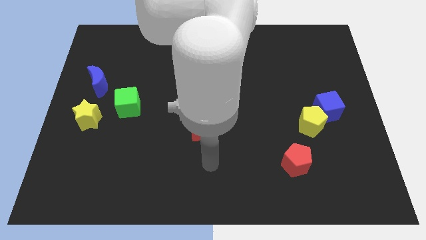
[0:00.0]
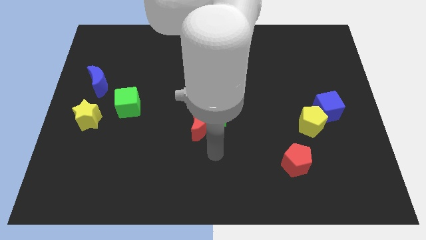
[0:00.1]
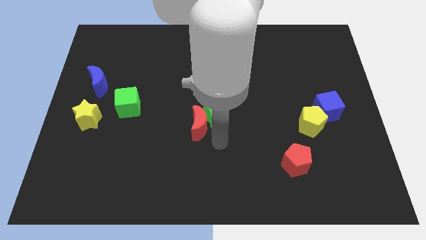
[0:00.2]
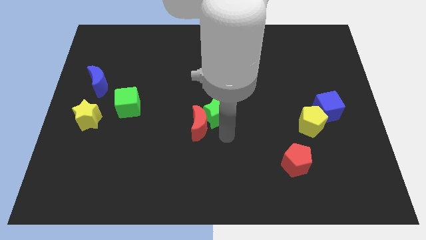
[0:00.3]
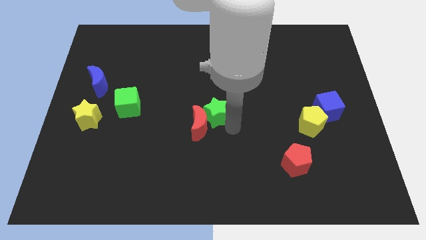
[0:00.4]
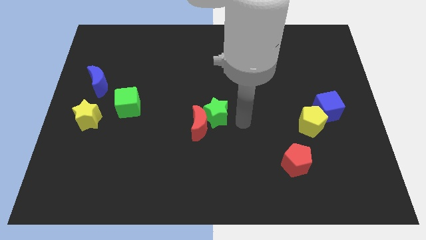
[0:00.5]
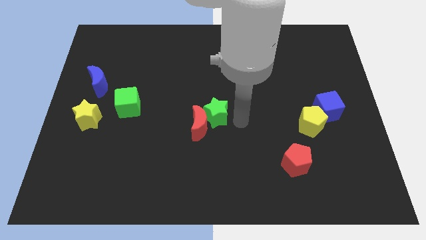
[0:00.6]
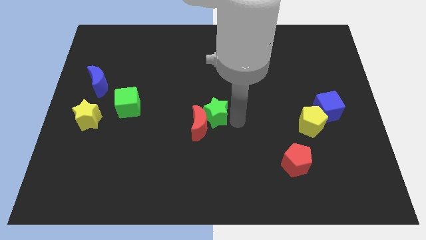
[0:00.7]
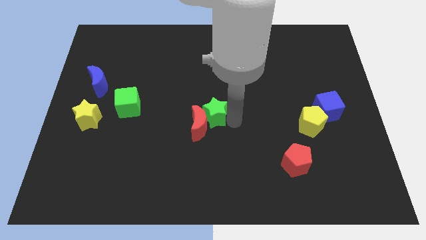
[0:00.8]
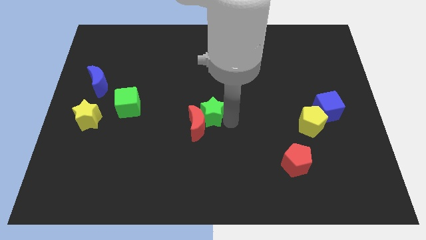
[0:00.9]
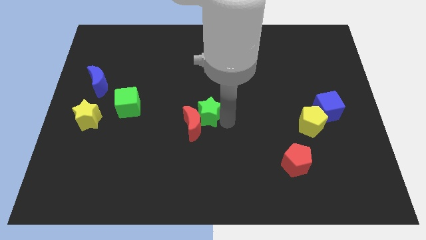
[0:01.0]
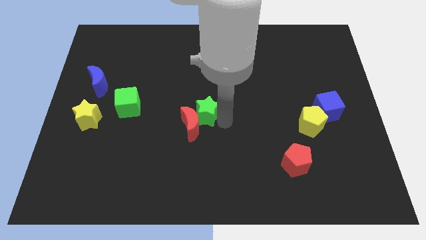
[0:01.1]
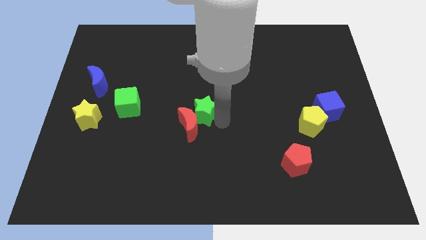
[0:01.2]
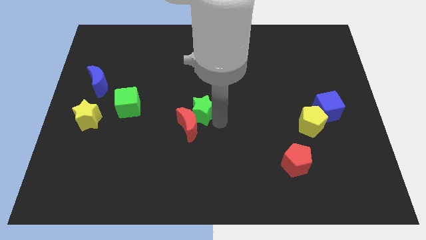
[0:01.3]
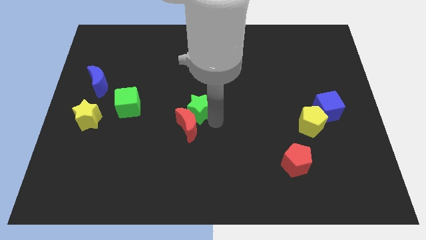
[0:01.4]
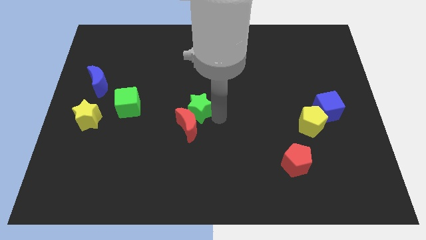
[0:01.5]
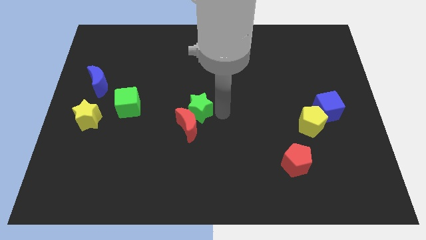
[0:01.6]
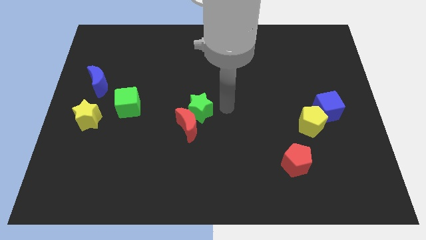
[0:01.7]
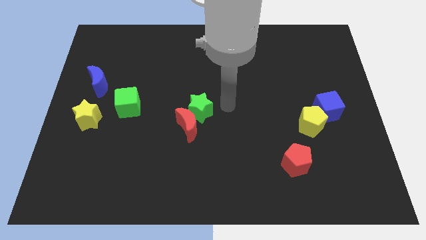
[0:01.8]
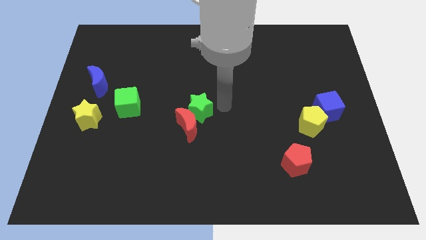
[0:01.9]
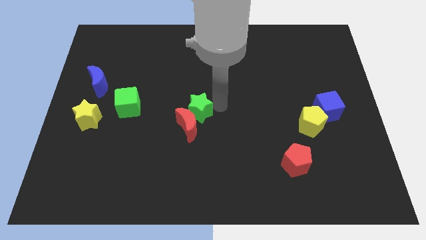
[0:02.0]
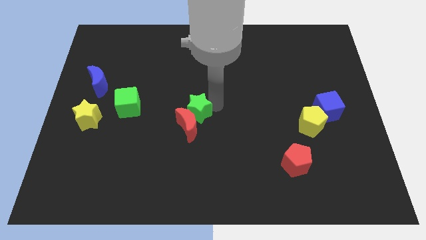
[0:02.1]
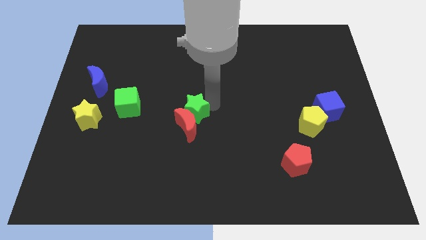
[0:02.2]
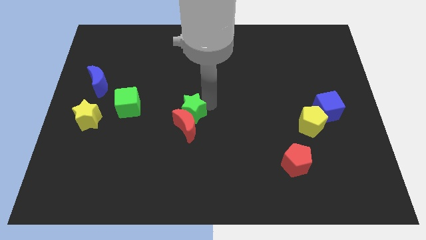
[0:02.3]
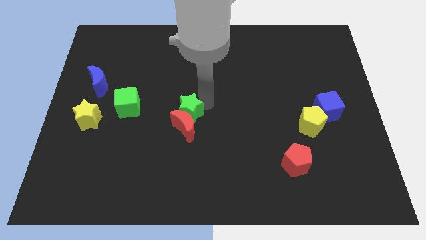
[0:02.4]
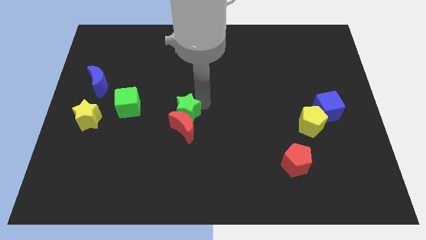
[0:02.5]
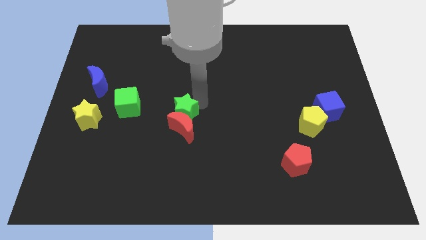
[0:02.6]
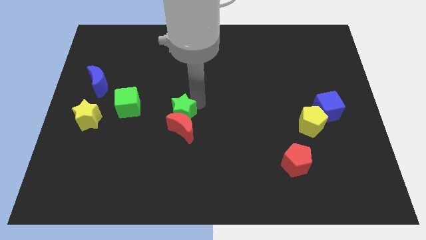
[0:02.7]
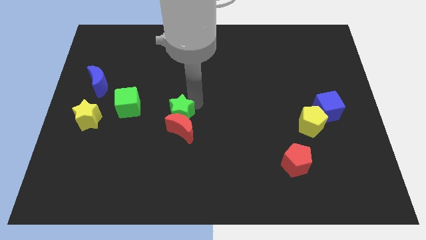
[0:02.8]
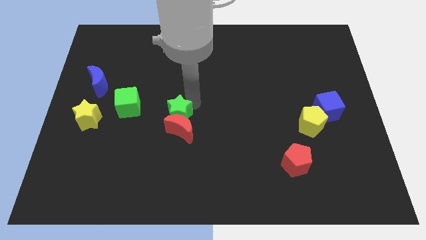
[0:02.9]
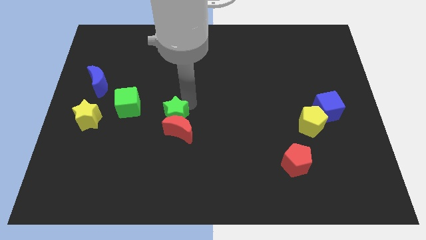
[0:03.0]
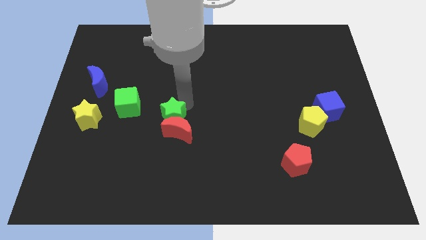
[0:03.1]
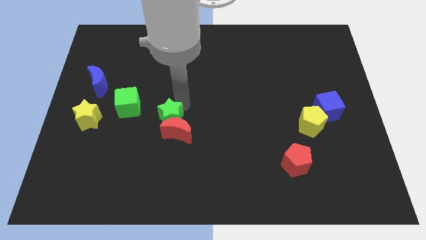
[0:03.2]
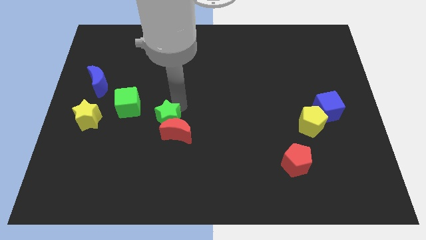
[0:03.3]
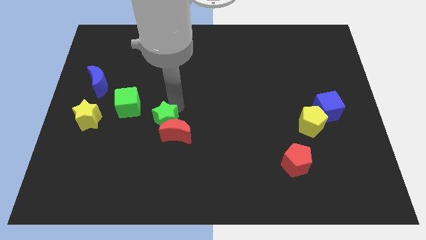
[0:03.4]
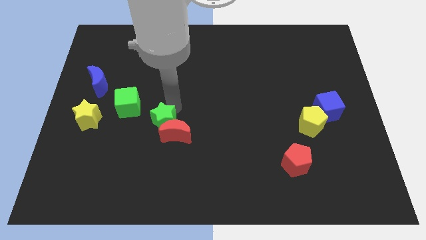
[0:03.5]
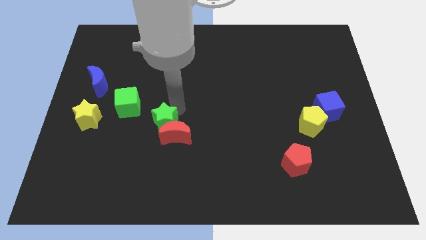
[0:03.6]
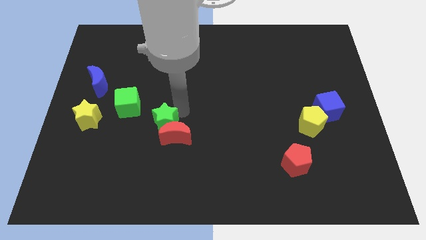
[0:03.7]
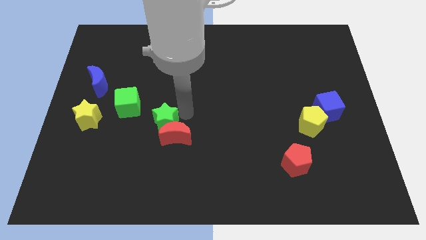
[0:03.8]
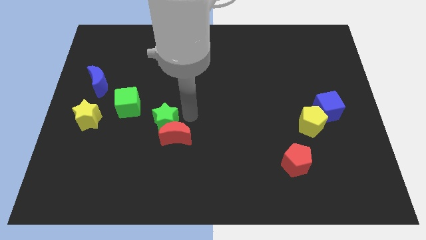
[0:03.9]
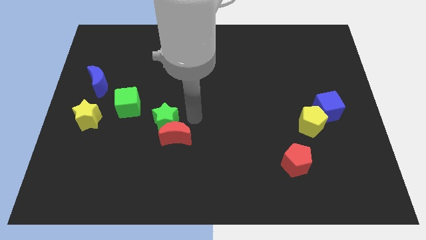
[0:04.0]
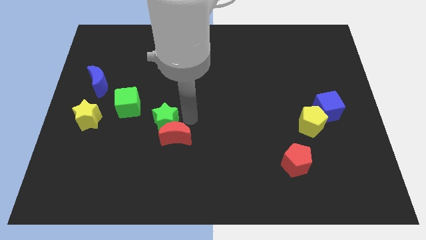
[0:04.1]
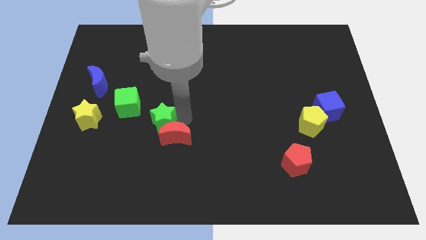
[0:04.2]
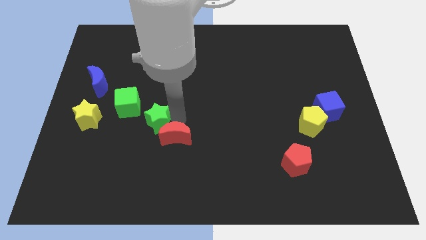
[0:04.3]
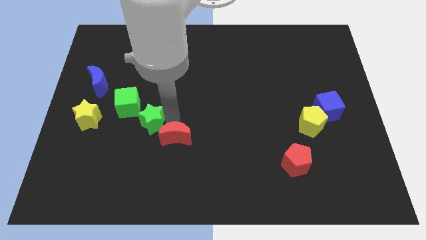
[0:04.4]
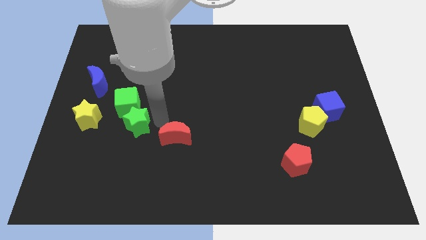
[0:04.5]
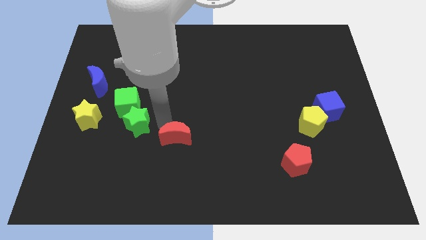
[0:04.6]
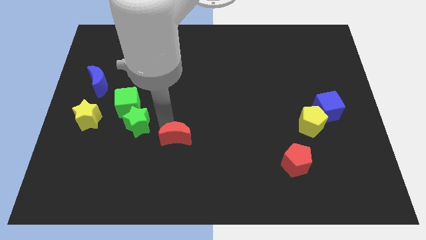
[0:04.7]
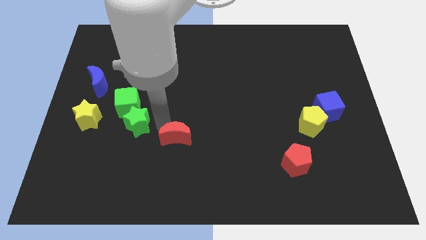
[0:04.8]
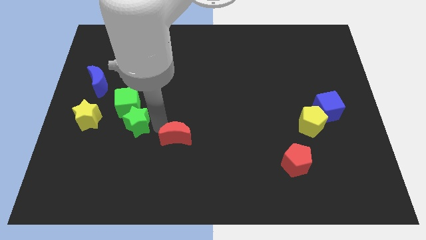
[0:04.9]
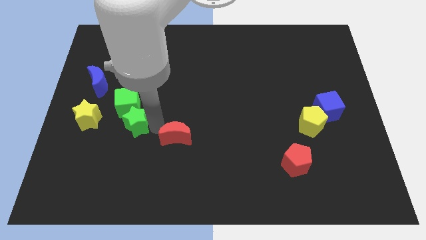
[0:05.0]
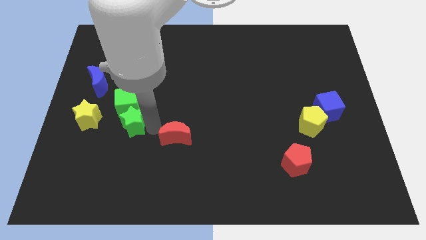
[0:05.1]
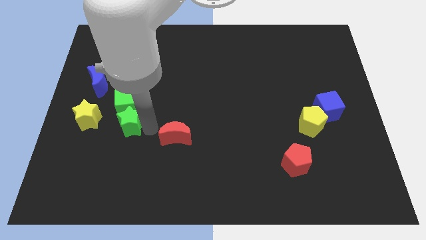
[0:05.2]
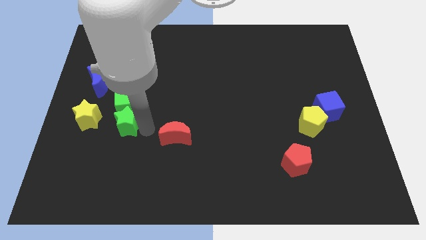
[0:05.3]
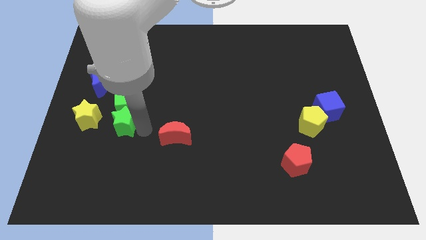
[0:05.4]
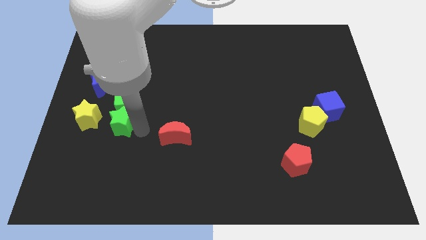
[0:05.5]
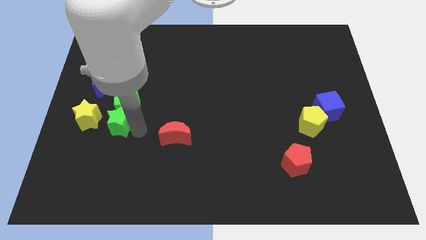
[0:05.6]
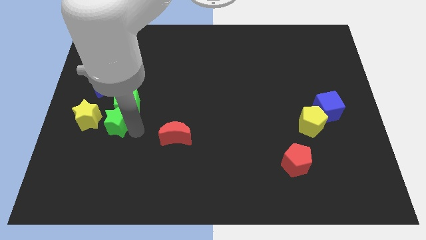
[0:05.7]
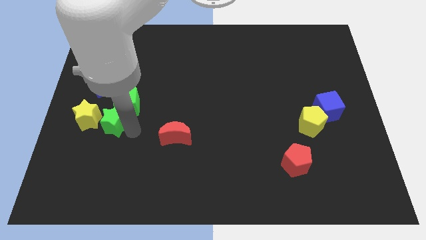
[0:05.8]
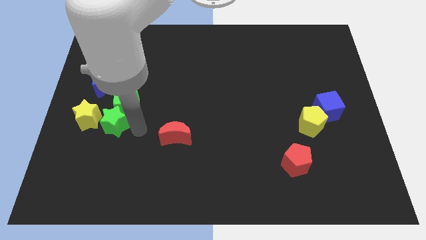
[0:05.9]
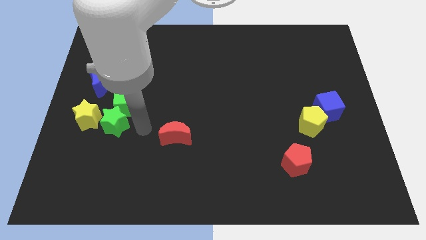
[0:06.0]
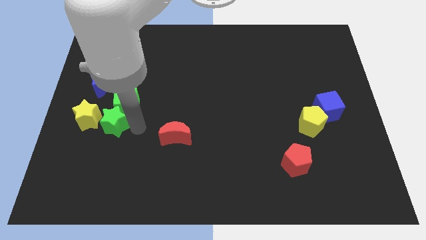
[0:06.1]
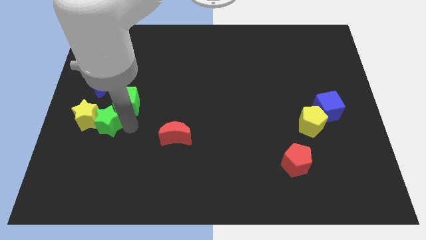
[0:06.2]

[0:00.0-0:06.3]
push the green star towards the yellow star

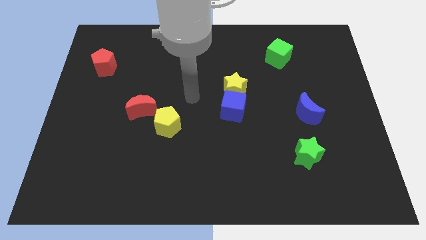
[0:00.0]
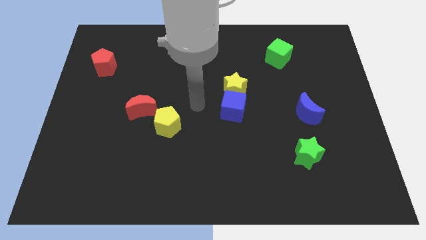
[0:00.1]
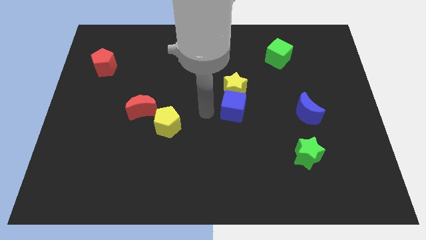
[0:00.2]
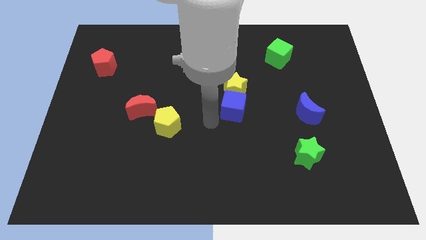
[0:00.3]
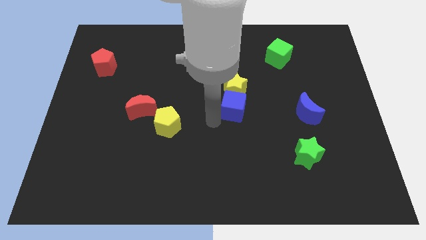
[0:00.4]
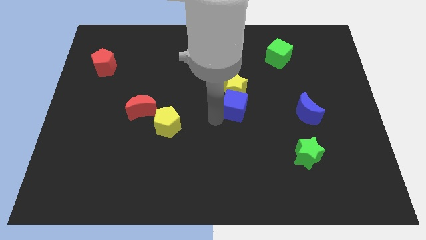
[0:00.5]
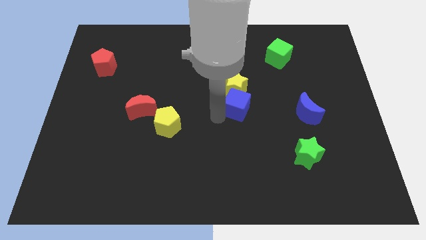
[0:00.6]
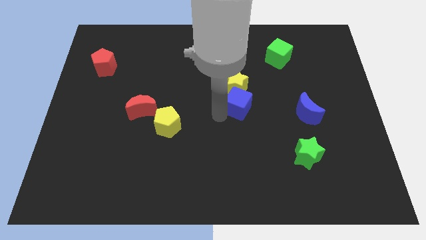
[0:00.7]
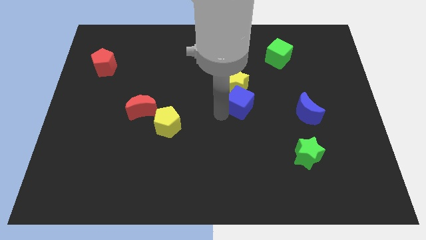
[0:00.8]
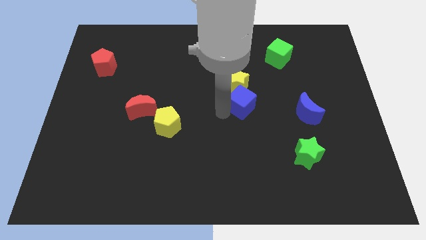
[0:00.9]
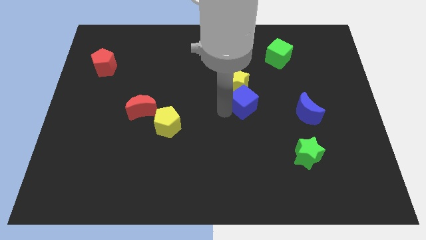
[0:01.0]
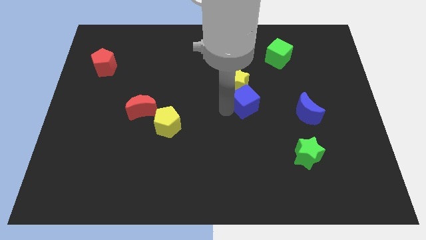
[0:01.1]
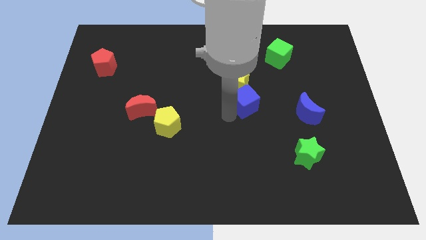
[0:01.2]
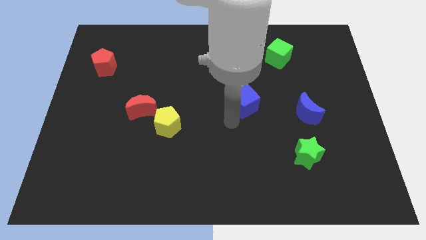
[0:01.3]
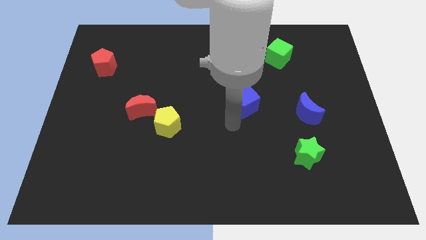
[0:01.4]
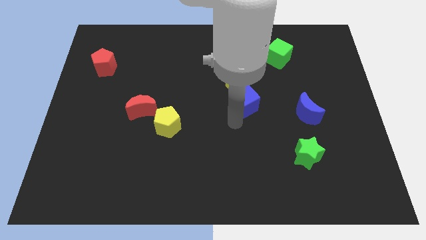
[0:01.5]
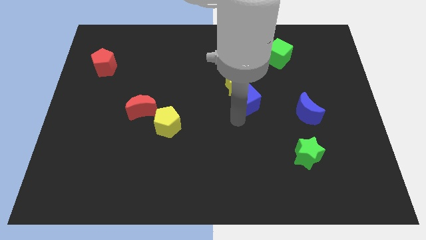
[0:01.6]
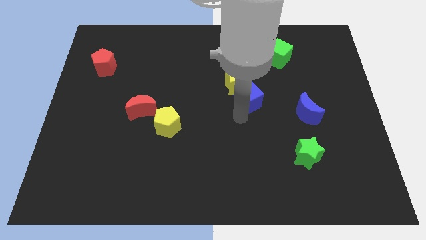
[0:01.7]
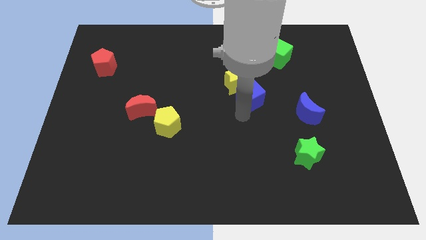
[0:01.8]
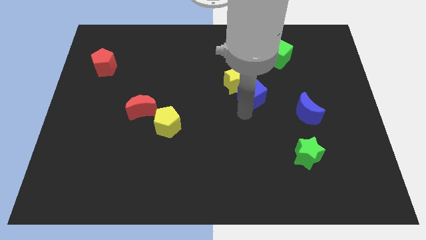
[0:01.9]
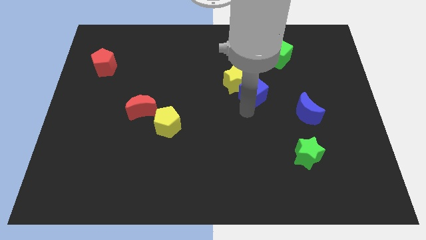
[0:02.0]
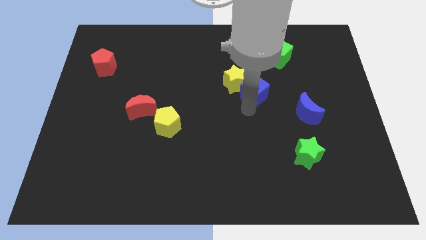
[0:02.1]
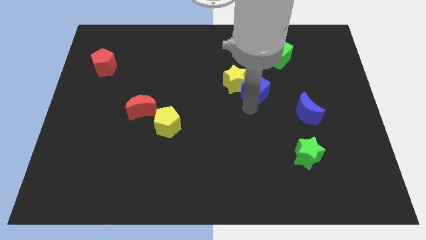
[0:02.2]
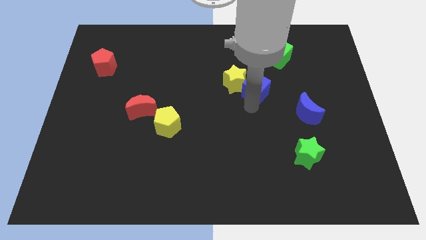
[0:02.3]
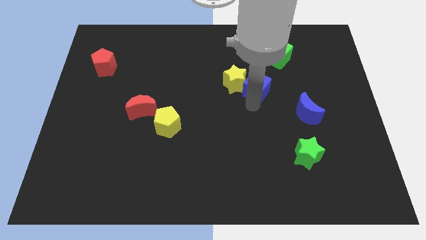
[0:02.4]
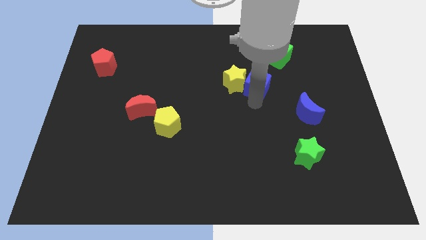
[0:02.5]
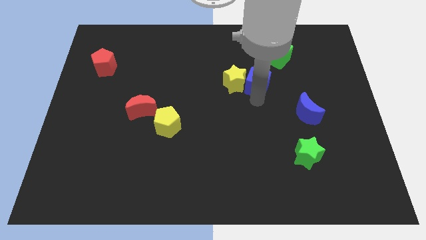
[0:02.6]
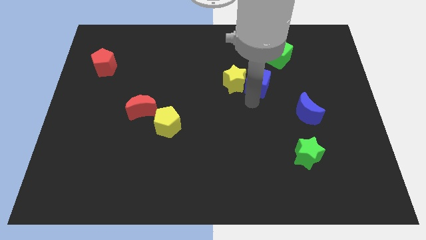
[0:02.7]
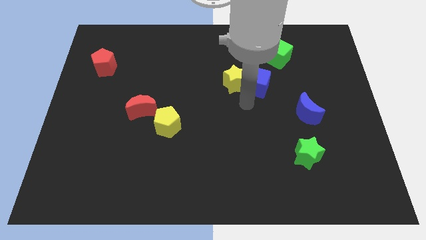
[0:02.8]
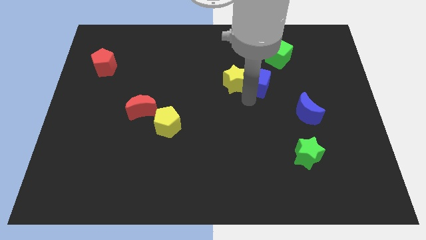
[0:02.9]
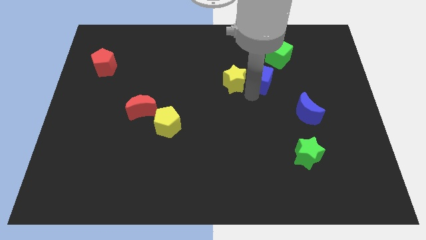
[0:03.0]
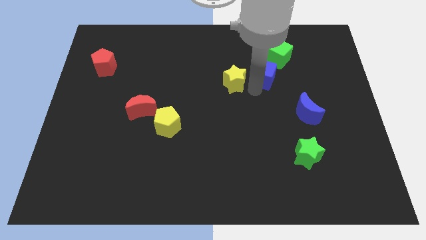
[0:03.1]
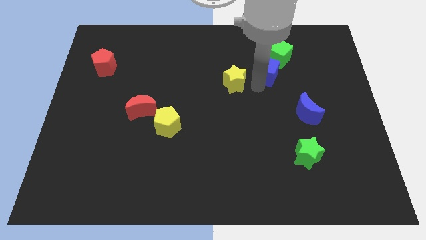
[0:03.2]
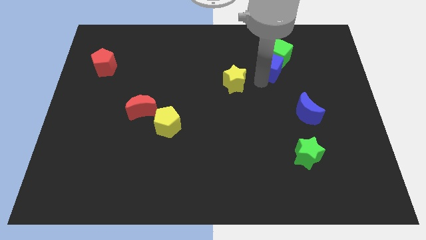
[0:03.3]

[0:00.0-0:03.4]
put the blue cube to the green cube
